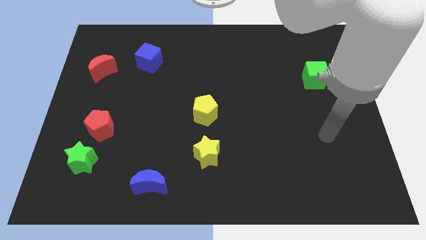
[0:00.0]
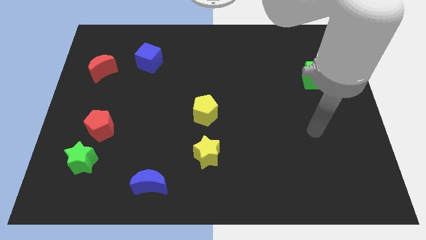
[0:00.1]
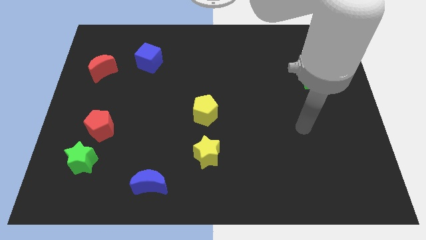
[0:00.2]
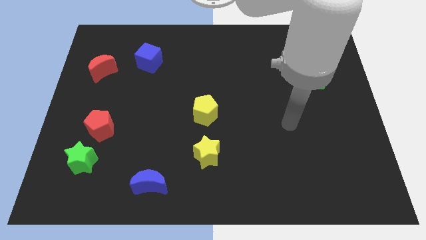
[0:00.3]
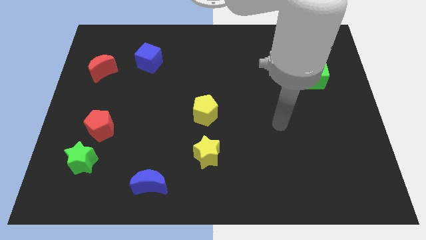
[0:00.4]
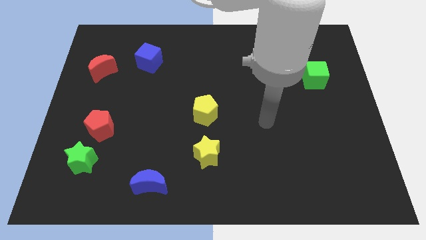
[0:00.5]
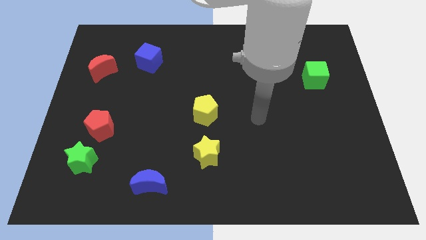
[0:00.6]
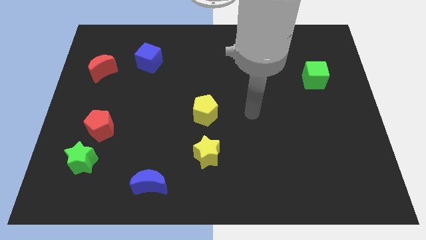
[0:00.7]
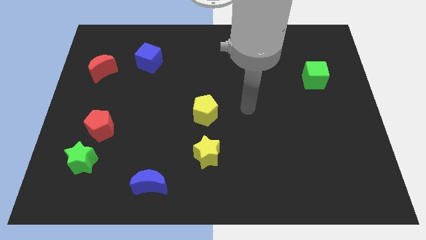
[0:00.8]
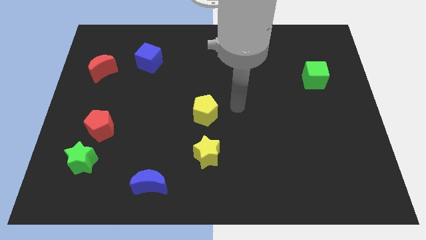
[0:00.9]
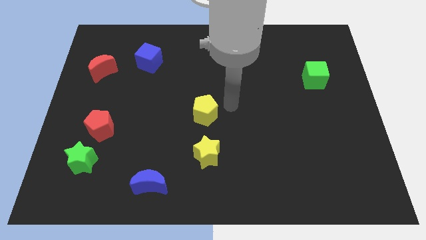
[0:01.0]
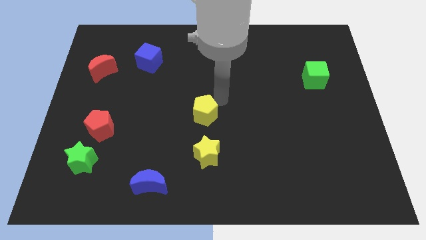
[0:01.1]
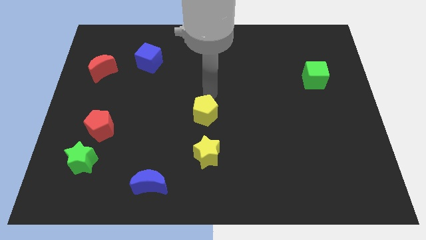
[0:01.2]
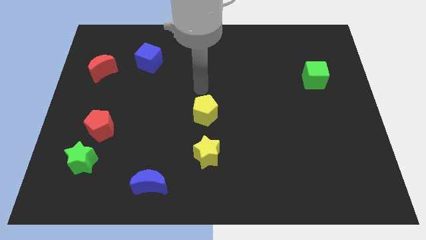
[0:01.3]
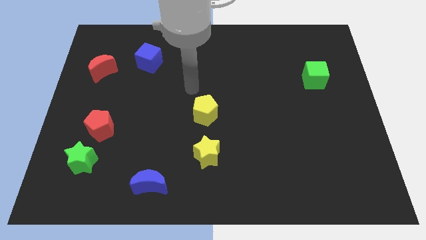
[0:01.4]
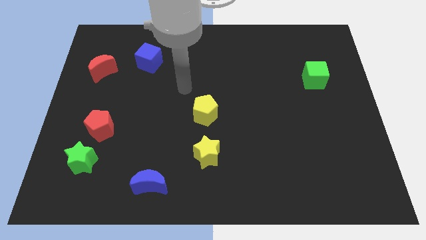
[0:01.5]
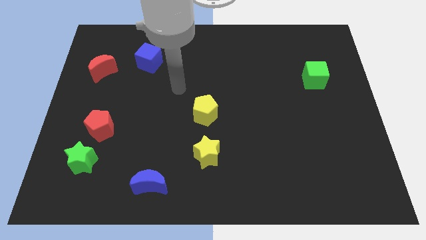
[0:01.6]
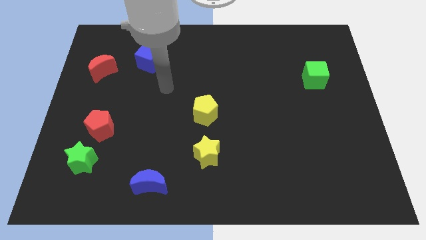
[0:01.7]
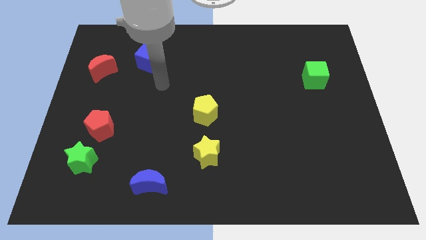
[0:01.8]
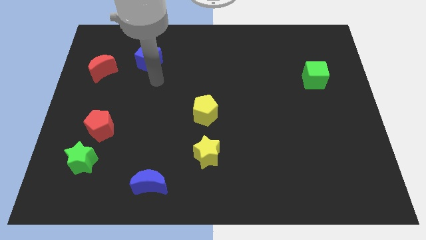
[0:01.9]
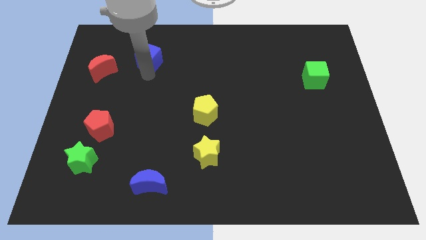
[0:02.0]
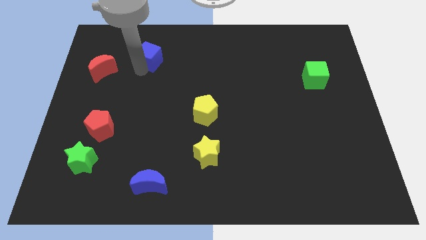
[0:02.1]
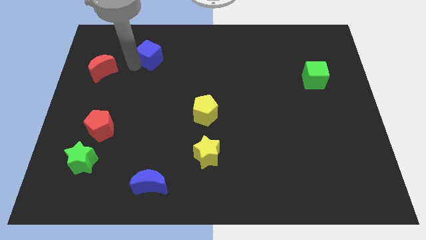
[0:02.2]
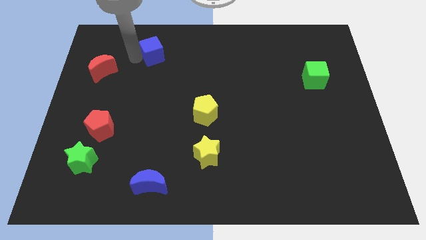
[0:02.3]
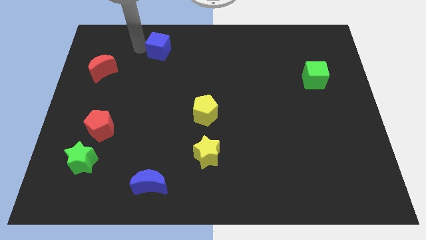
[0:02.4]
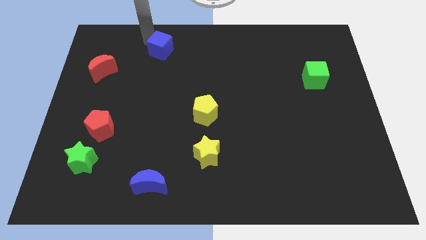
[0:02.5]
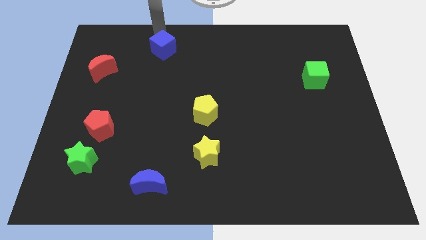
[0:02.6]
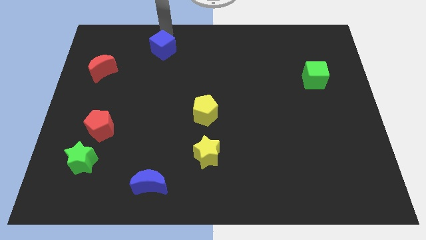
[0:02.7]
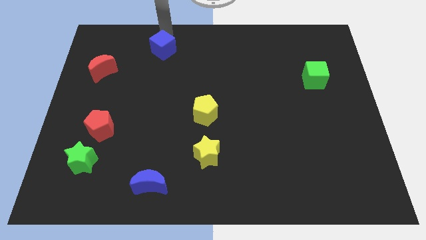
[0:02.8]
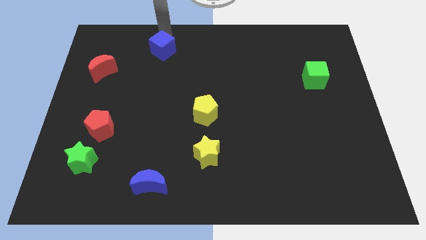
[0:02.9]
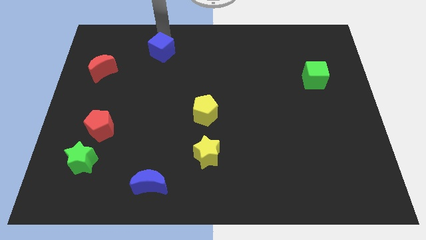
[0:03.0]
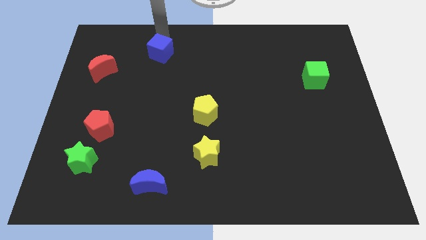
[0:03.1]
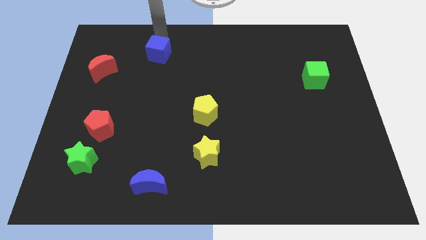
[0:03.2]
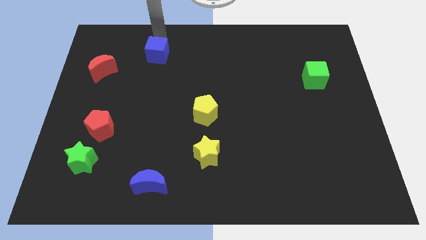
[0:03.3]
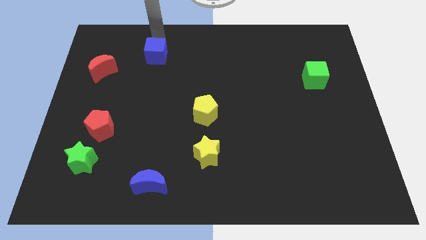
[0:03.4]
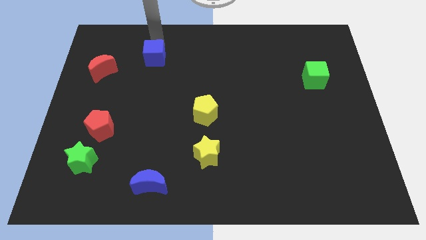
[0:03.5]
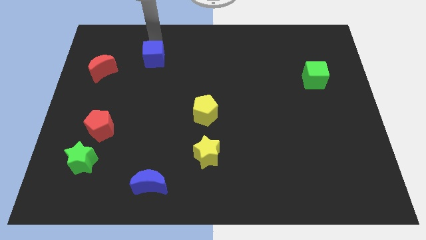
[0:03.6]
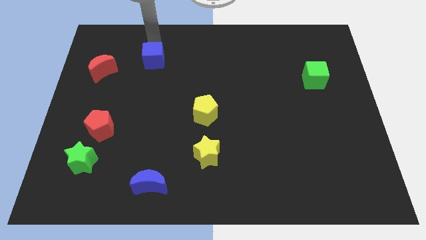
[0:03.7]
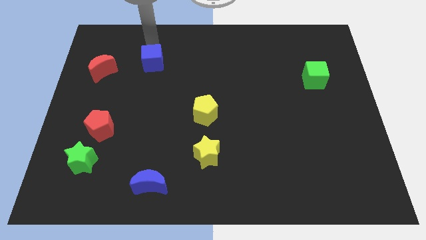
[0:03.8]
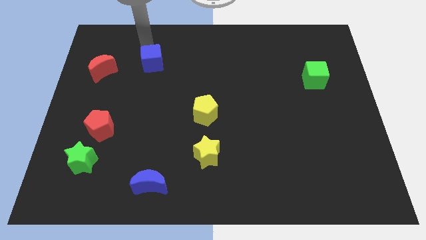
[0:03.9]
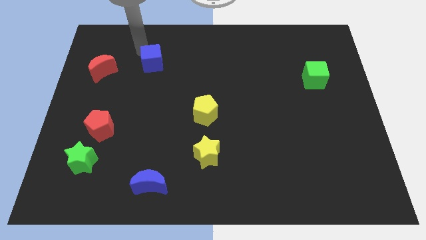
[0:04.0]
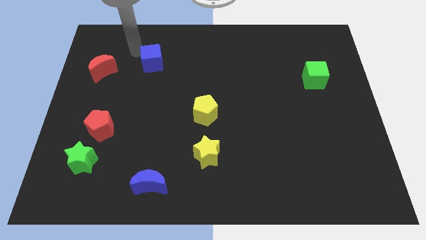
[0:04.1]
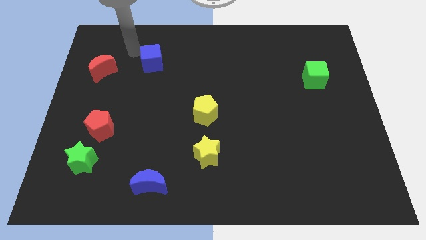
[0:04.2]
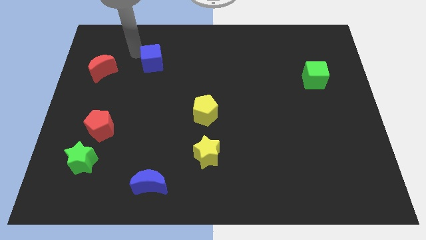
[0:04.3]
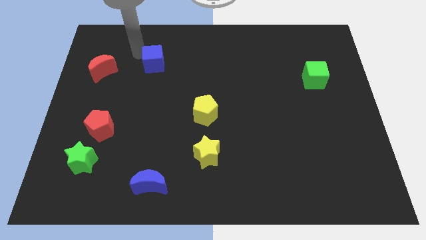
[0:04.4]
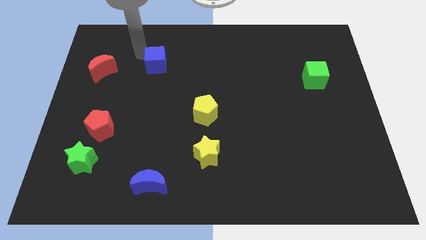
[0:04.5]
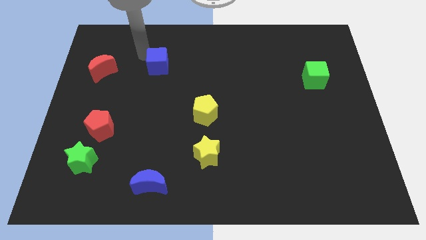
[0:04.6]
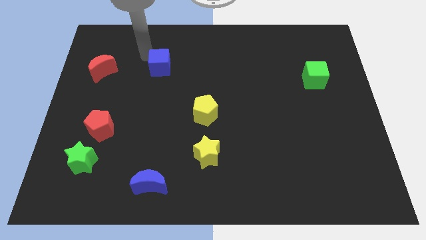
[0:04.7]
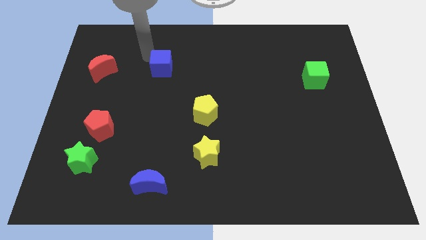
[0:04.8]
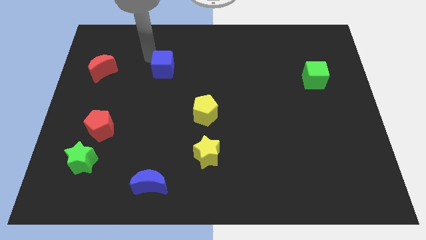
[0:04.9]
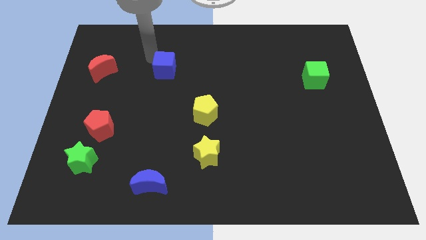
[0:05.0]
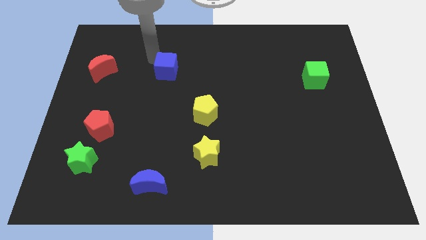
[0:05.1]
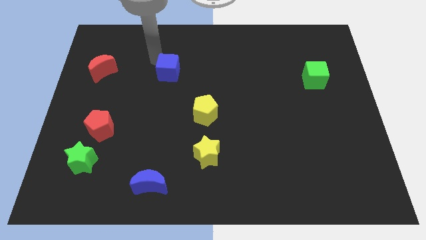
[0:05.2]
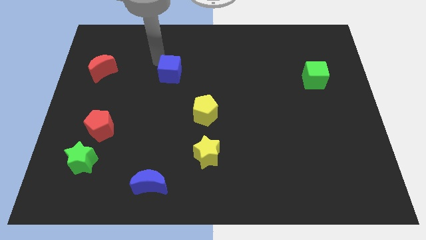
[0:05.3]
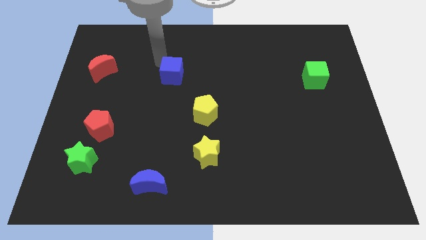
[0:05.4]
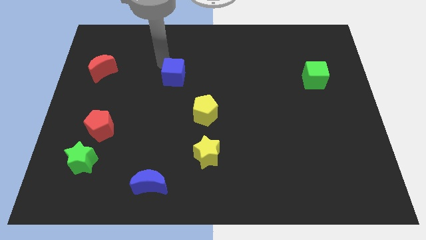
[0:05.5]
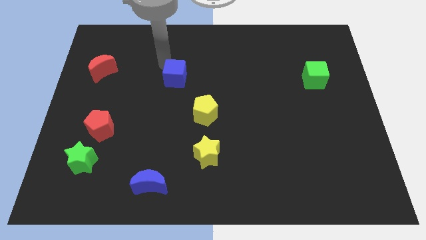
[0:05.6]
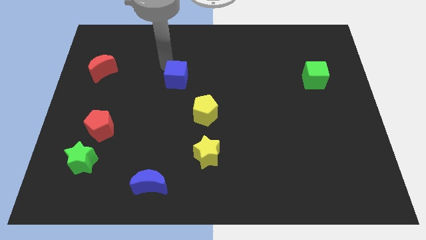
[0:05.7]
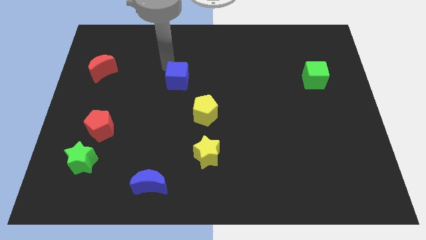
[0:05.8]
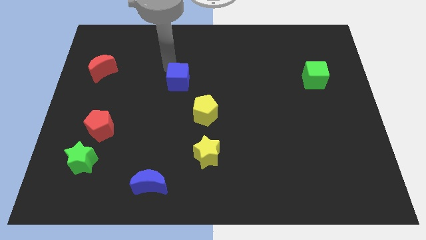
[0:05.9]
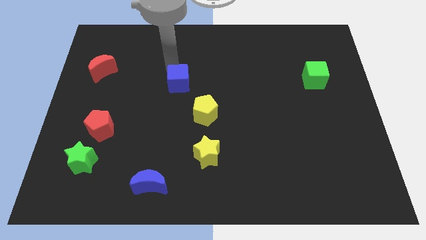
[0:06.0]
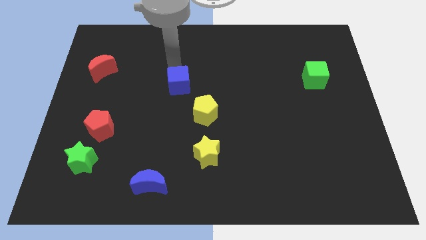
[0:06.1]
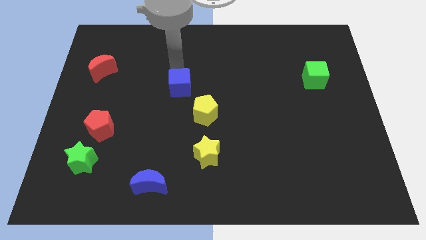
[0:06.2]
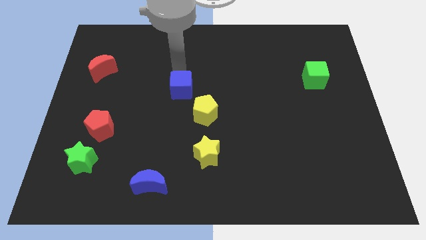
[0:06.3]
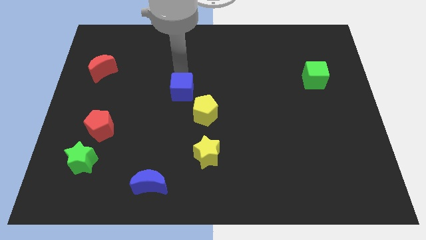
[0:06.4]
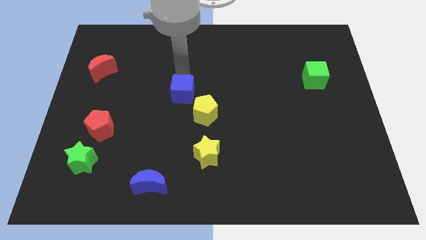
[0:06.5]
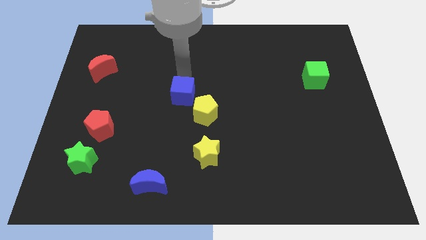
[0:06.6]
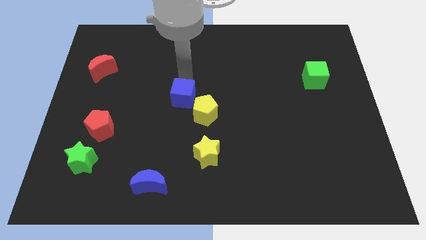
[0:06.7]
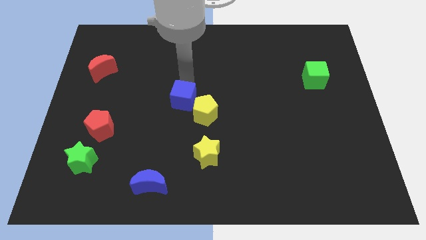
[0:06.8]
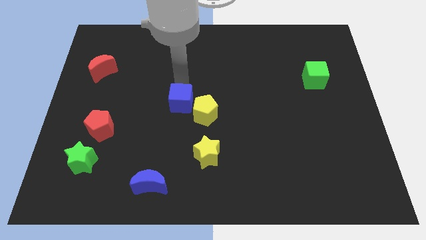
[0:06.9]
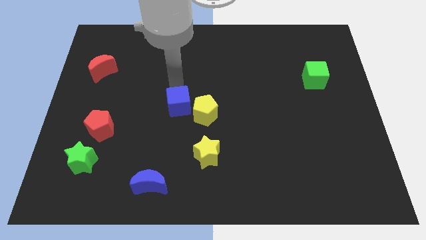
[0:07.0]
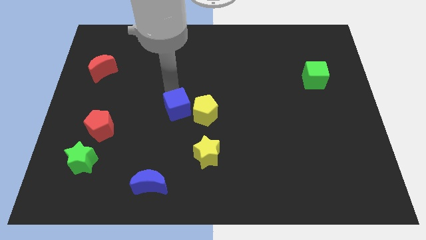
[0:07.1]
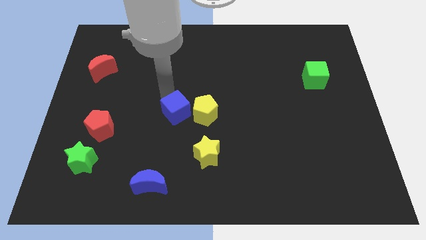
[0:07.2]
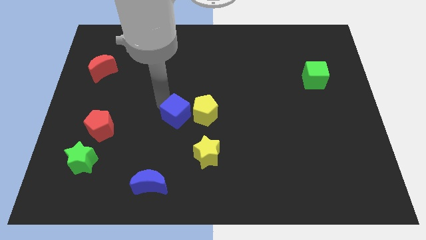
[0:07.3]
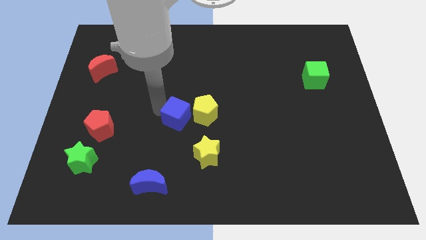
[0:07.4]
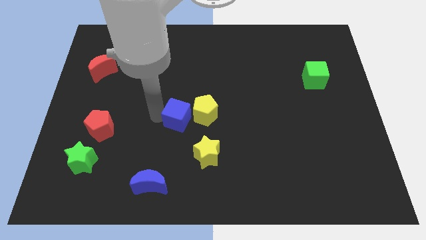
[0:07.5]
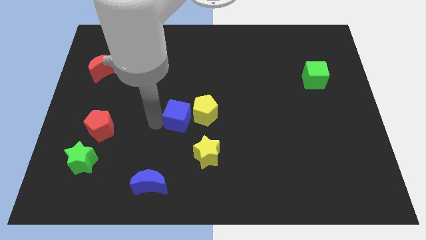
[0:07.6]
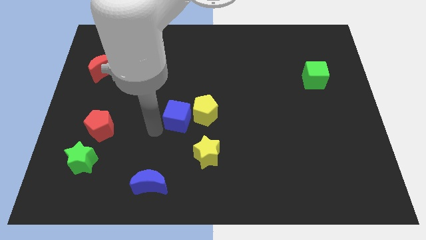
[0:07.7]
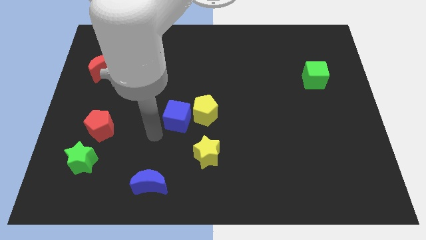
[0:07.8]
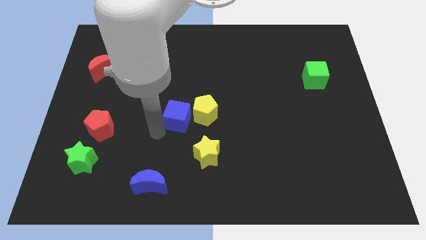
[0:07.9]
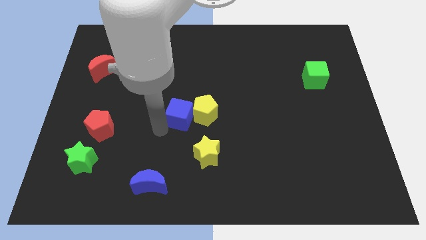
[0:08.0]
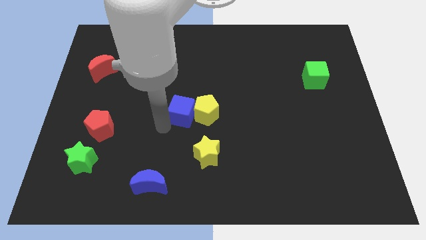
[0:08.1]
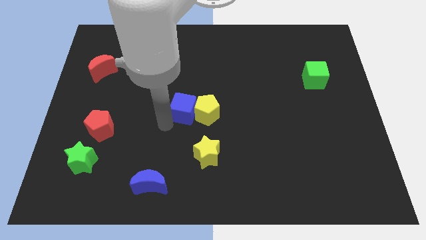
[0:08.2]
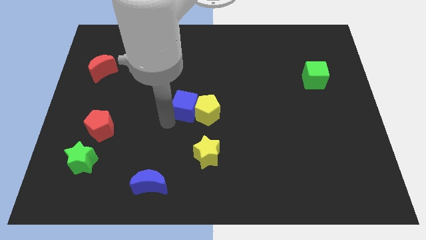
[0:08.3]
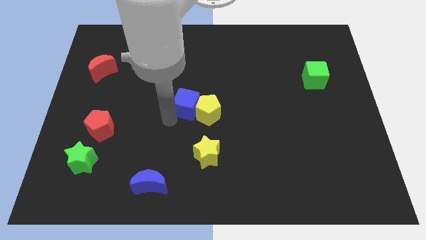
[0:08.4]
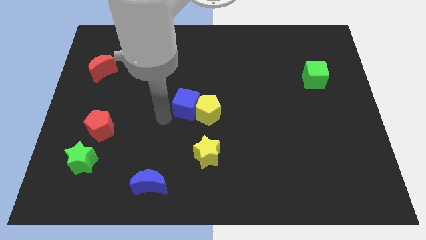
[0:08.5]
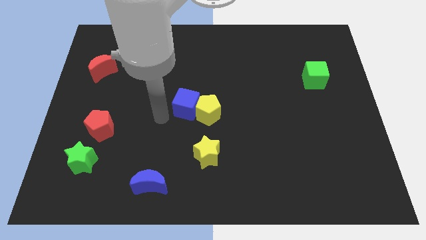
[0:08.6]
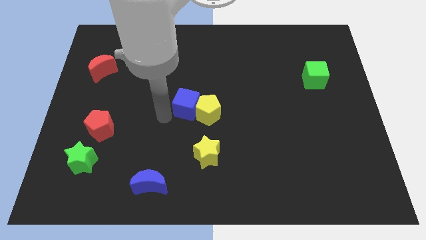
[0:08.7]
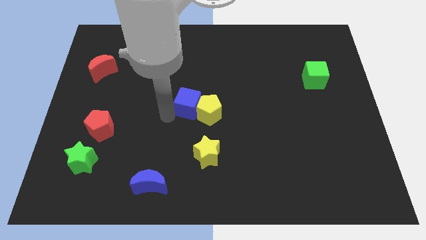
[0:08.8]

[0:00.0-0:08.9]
move the blue cube to the top of the yellow star
